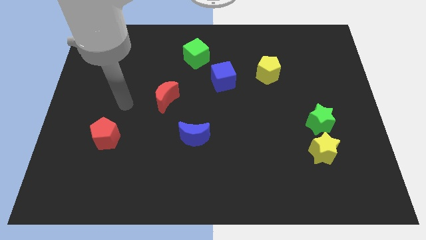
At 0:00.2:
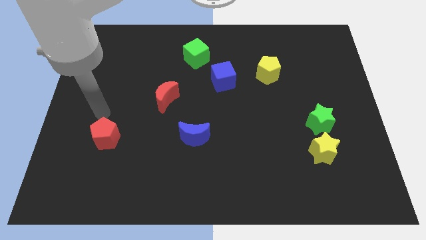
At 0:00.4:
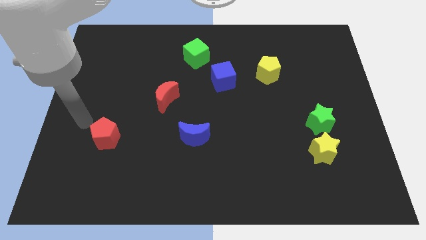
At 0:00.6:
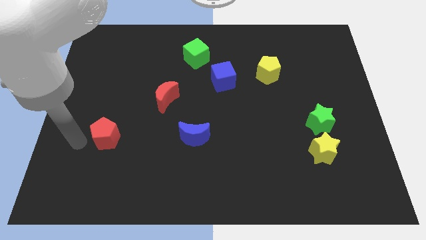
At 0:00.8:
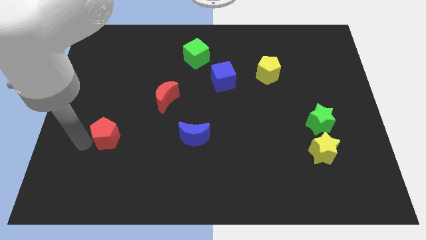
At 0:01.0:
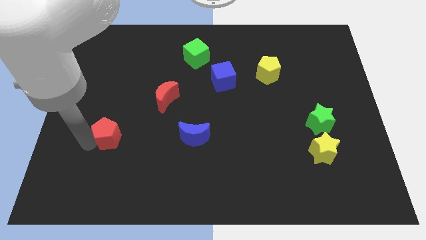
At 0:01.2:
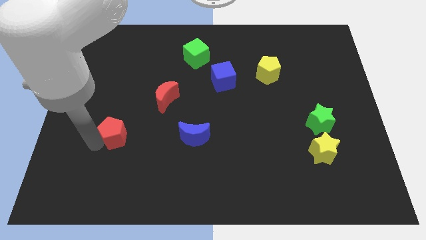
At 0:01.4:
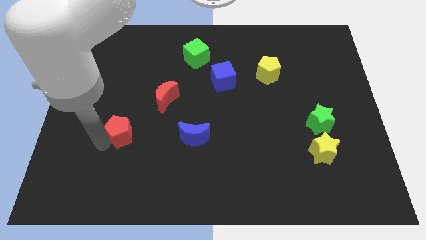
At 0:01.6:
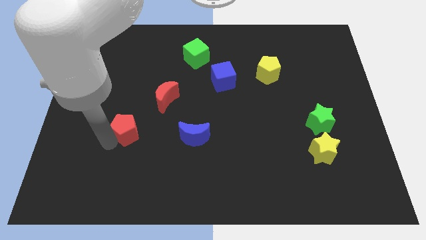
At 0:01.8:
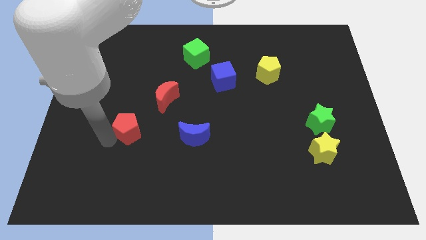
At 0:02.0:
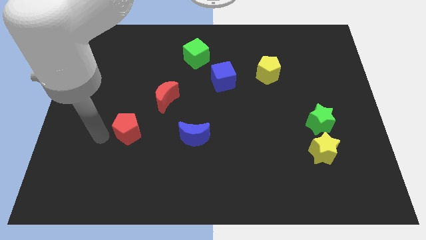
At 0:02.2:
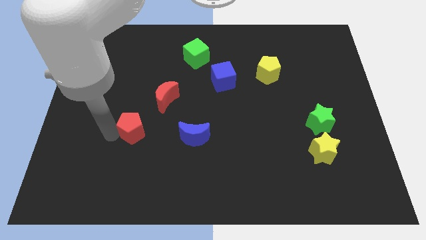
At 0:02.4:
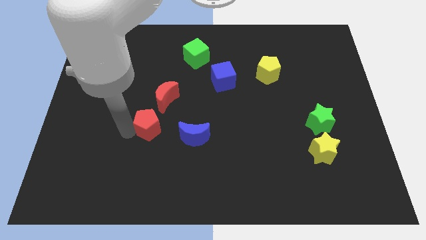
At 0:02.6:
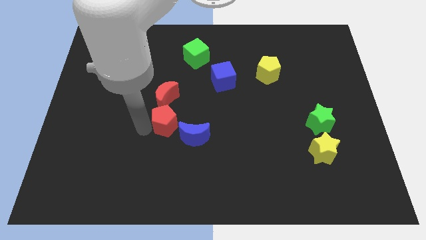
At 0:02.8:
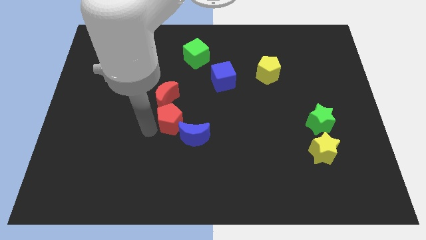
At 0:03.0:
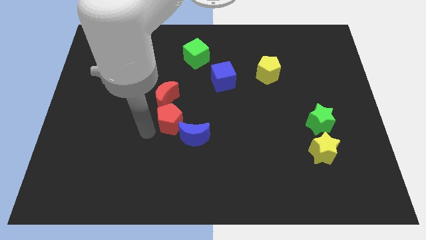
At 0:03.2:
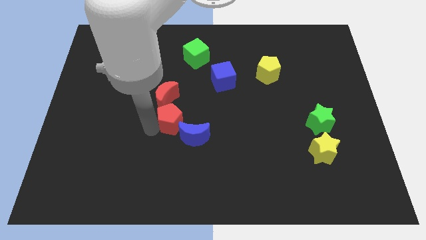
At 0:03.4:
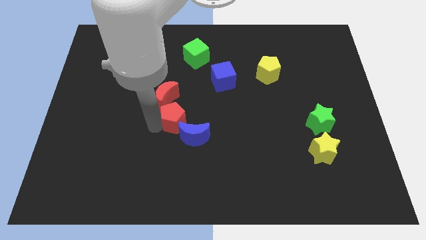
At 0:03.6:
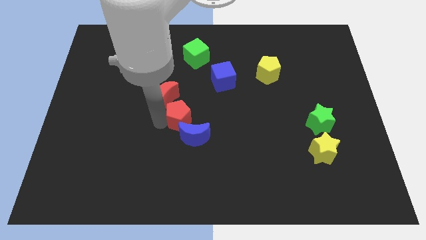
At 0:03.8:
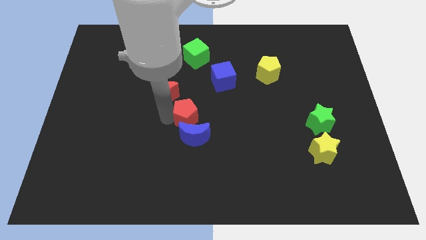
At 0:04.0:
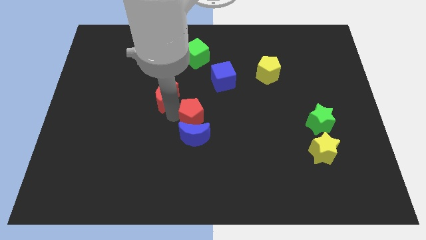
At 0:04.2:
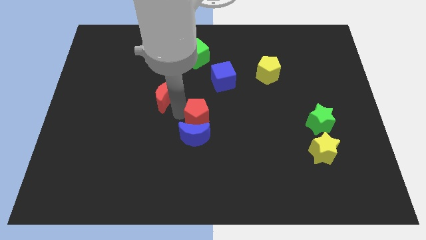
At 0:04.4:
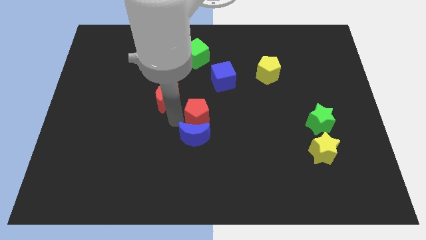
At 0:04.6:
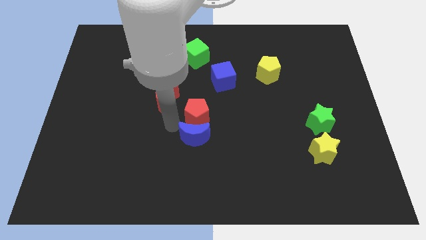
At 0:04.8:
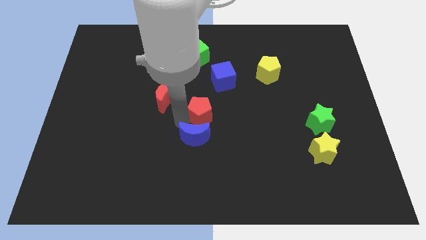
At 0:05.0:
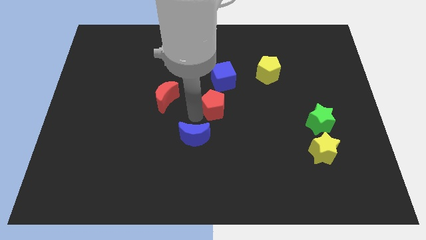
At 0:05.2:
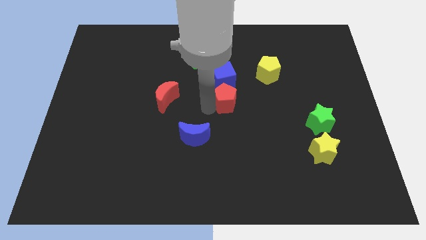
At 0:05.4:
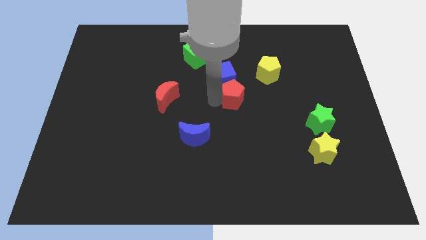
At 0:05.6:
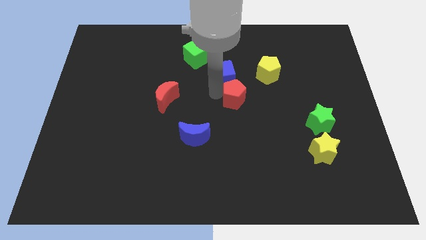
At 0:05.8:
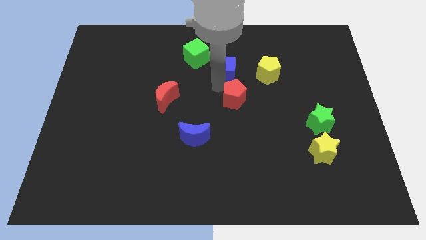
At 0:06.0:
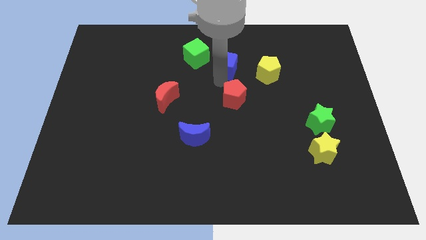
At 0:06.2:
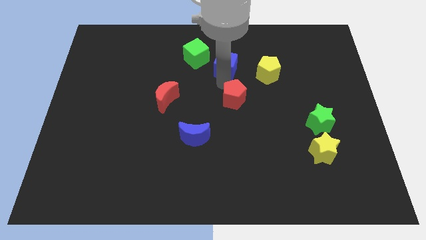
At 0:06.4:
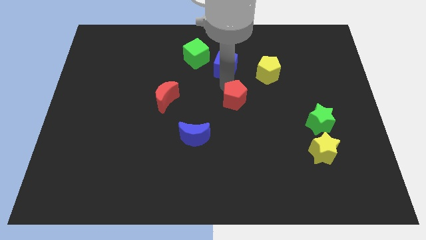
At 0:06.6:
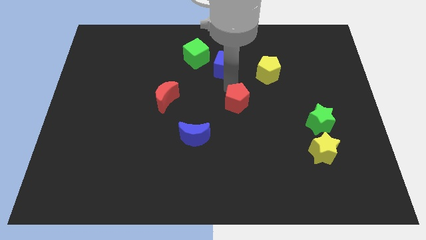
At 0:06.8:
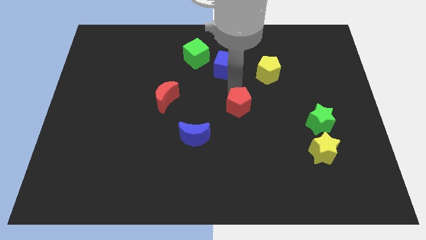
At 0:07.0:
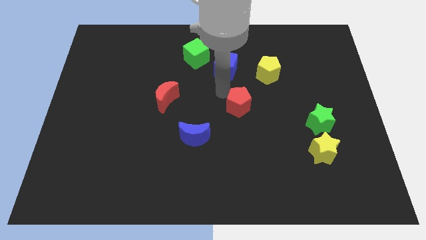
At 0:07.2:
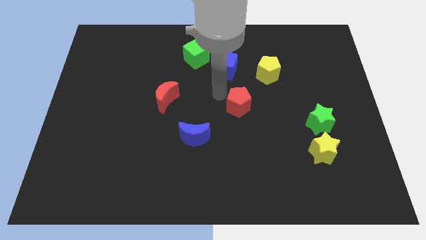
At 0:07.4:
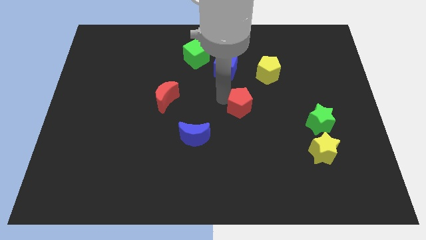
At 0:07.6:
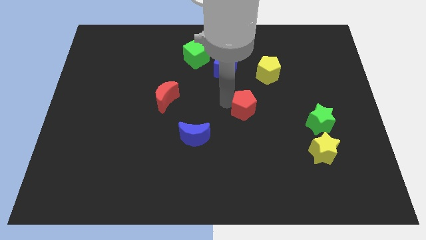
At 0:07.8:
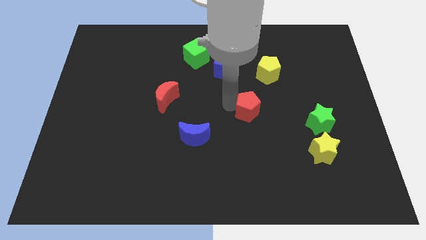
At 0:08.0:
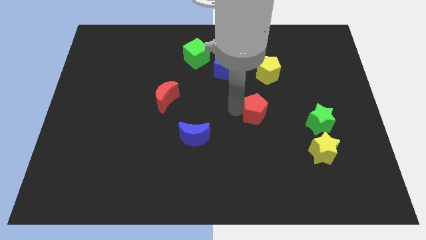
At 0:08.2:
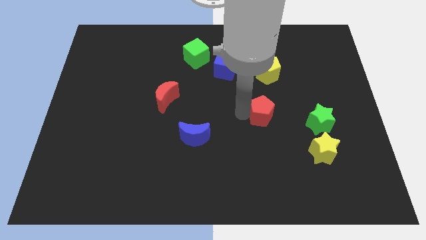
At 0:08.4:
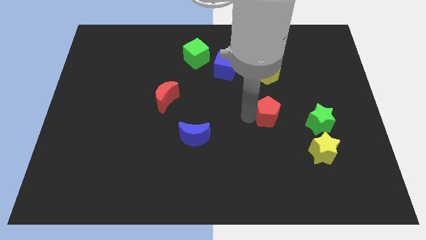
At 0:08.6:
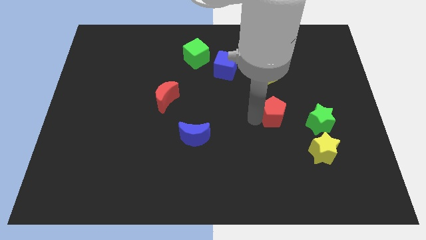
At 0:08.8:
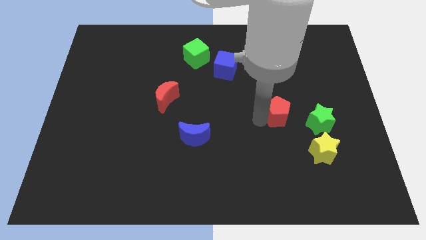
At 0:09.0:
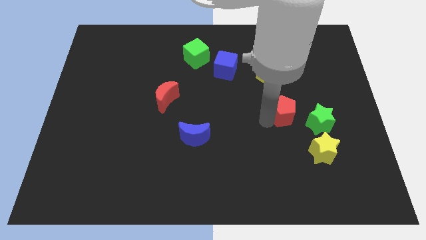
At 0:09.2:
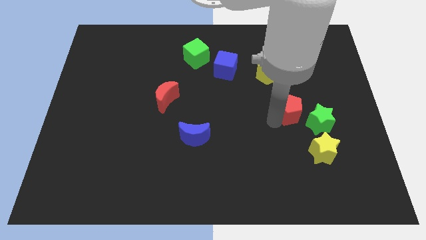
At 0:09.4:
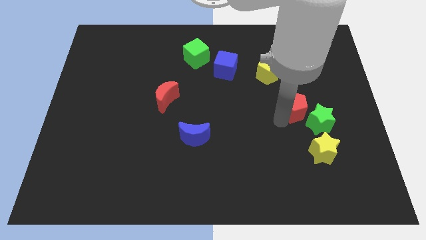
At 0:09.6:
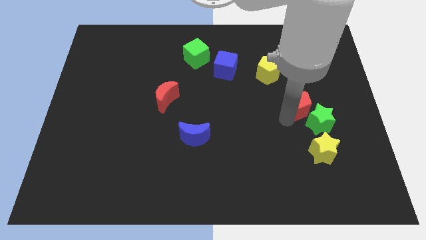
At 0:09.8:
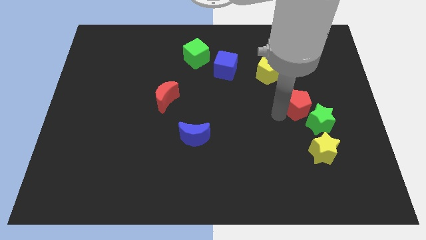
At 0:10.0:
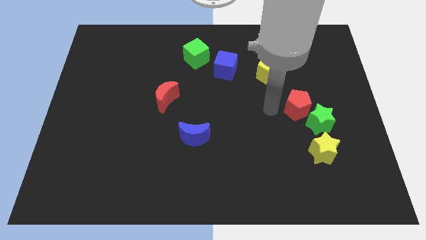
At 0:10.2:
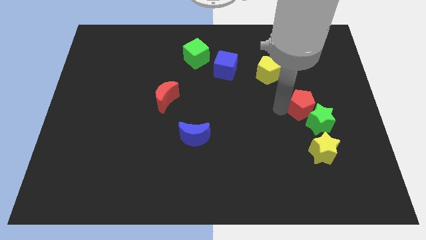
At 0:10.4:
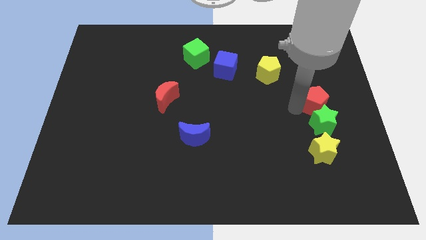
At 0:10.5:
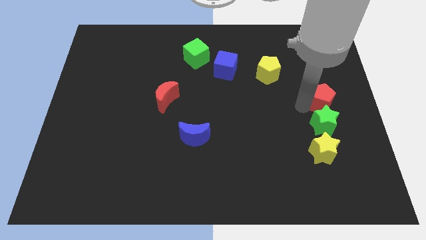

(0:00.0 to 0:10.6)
push the red pentagon to the right side

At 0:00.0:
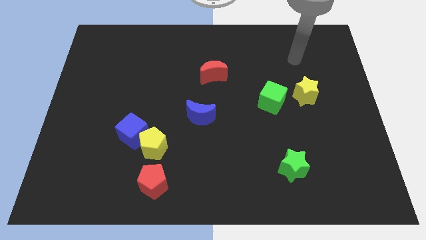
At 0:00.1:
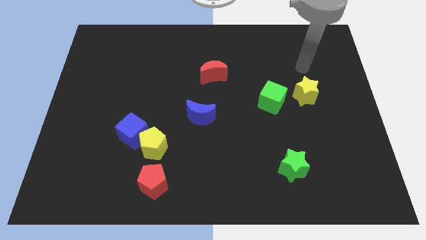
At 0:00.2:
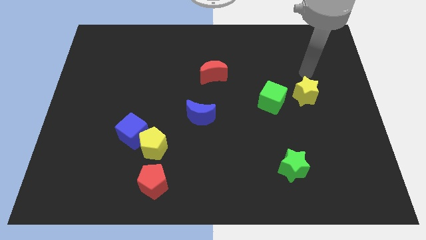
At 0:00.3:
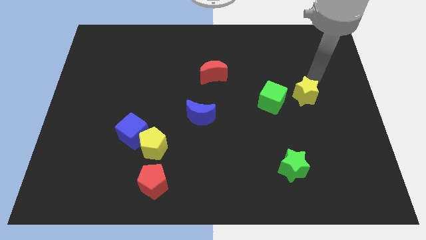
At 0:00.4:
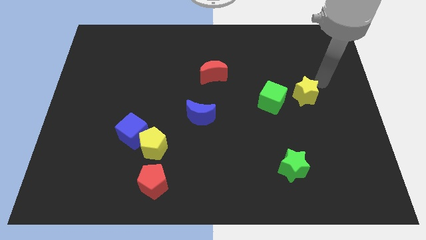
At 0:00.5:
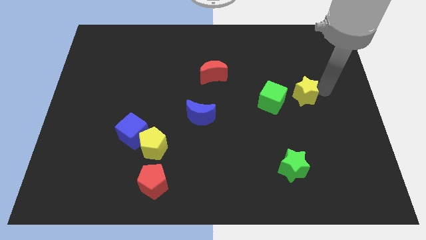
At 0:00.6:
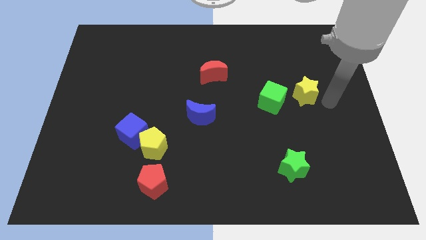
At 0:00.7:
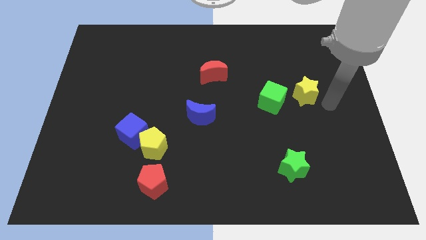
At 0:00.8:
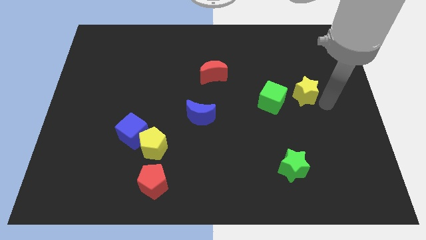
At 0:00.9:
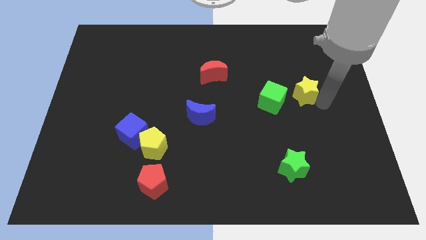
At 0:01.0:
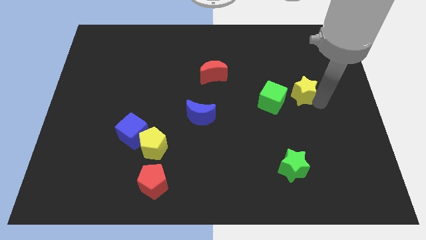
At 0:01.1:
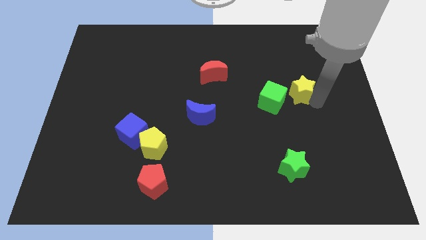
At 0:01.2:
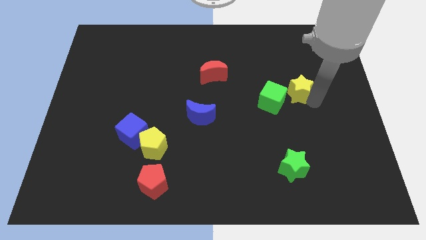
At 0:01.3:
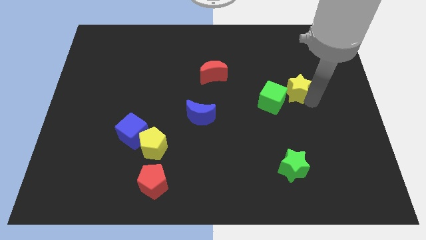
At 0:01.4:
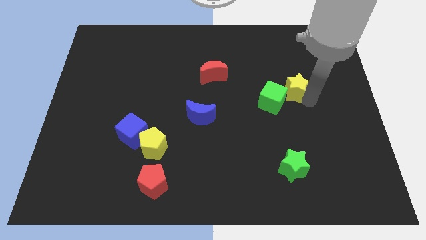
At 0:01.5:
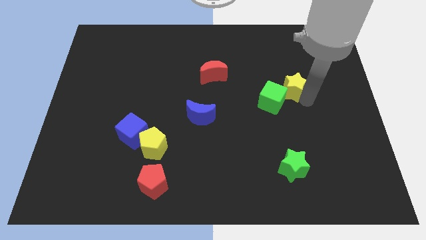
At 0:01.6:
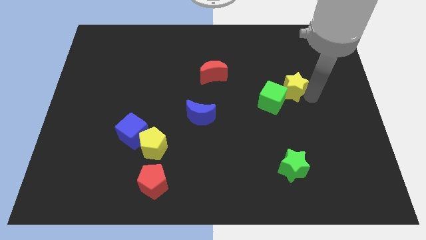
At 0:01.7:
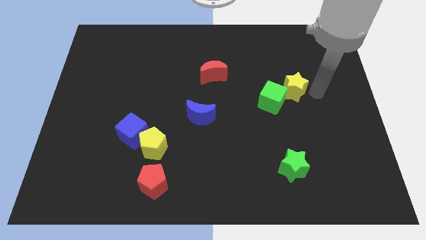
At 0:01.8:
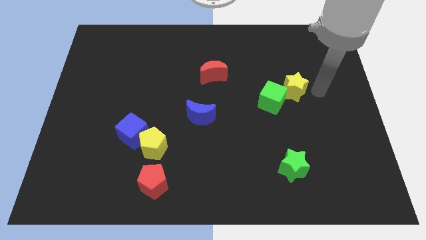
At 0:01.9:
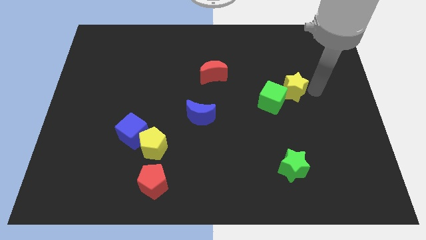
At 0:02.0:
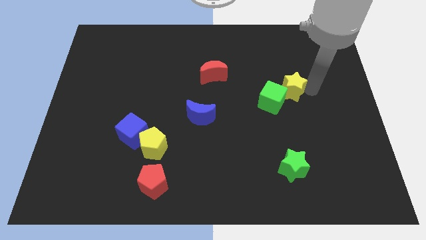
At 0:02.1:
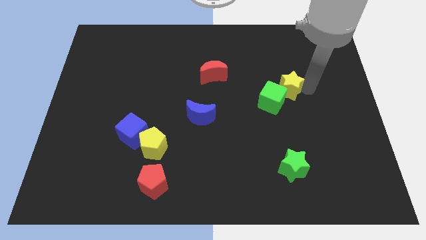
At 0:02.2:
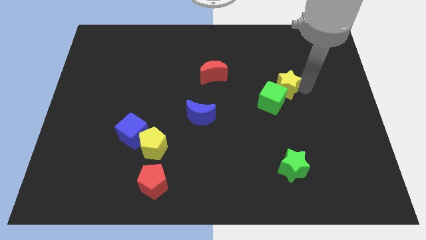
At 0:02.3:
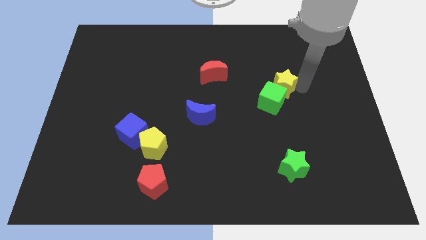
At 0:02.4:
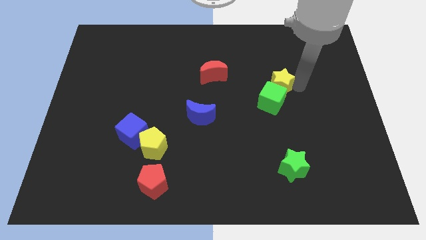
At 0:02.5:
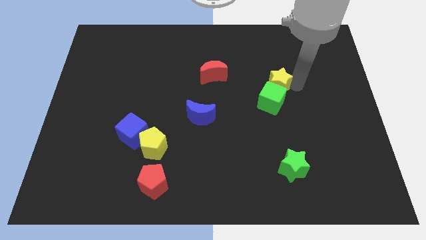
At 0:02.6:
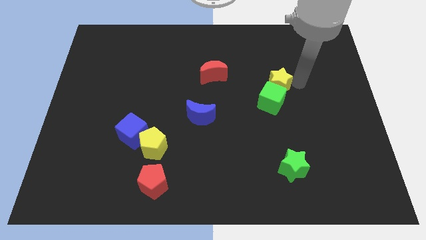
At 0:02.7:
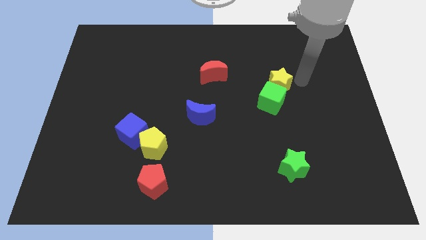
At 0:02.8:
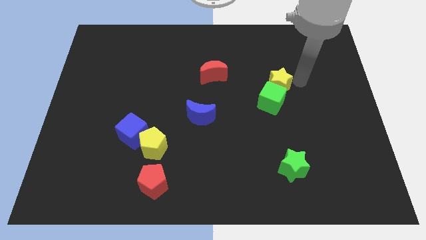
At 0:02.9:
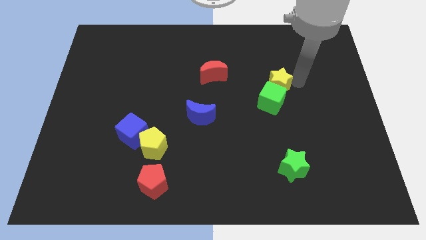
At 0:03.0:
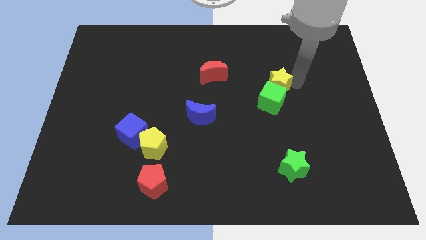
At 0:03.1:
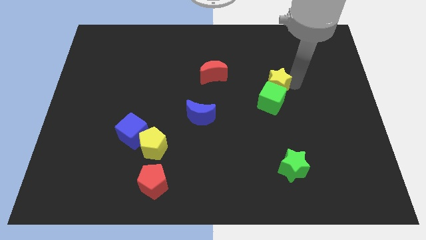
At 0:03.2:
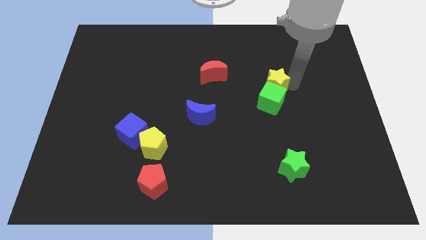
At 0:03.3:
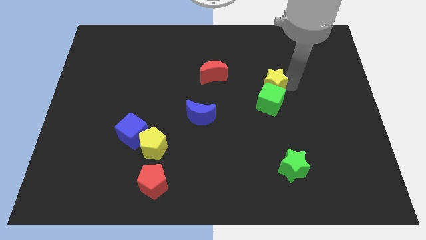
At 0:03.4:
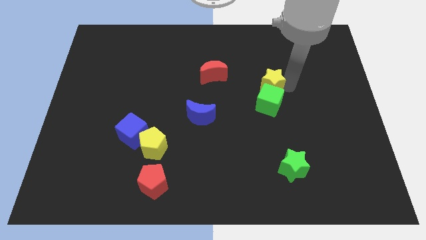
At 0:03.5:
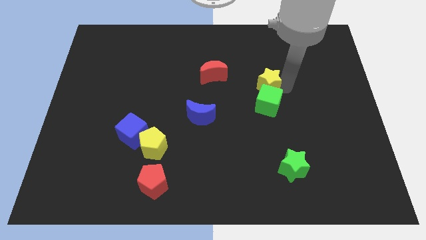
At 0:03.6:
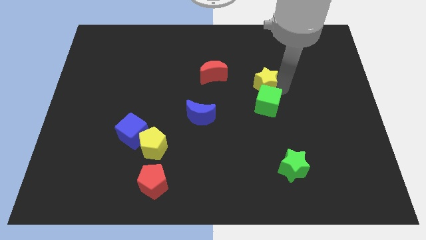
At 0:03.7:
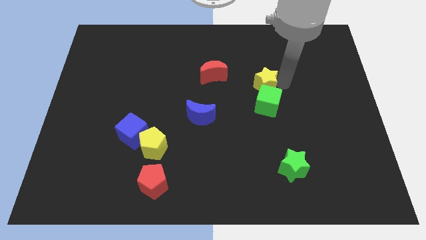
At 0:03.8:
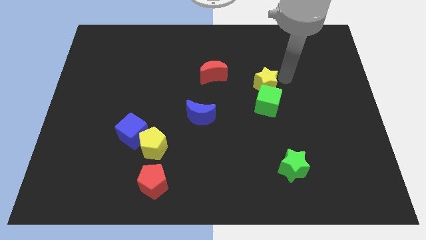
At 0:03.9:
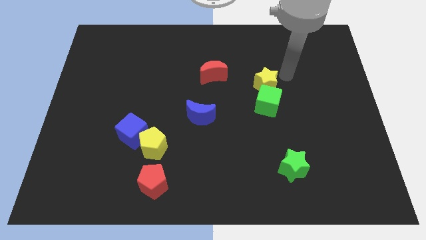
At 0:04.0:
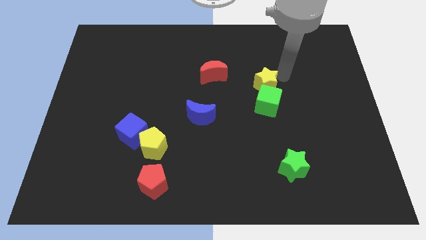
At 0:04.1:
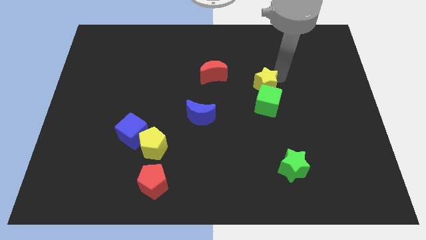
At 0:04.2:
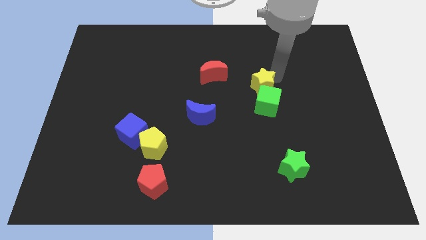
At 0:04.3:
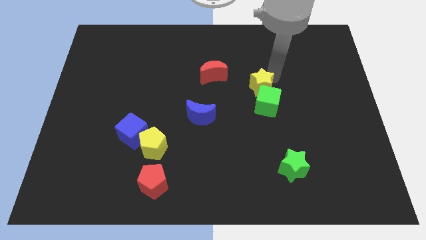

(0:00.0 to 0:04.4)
put the yellow star to the center of the board
